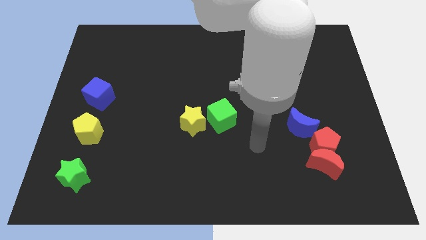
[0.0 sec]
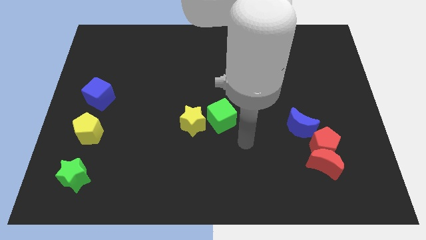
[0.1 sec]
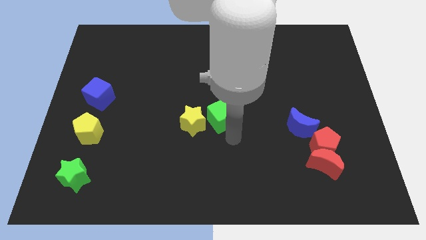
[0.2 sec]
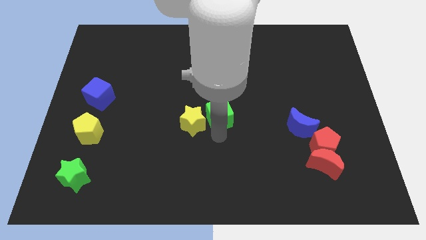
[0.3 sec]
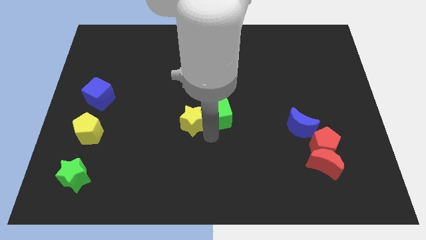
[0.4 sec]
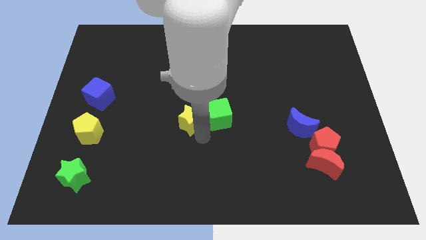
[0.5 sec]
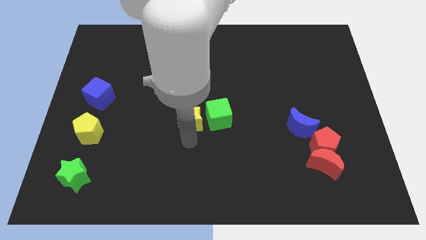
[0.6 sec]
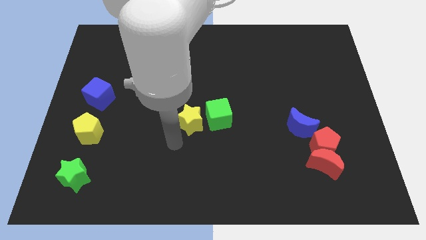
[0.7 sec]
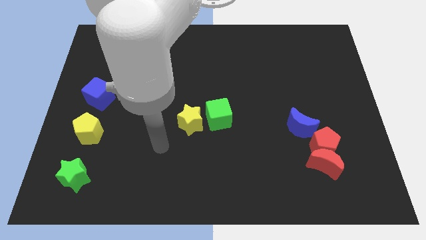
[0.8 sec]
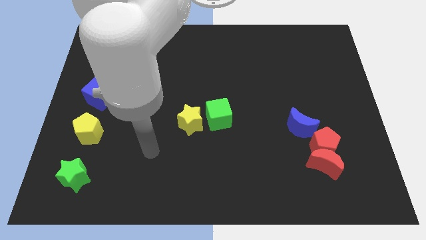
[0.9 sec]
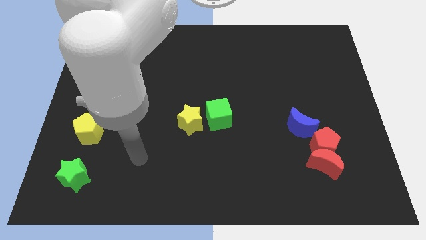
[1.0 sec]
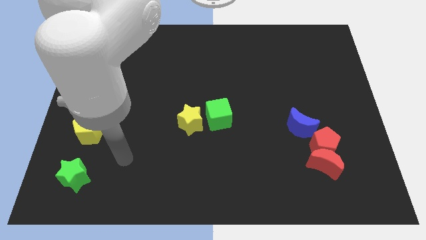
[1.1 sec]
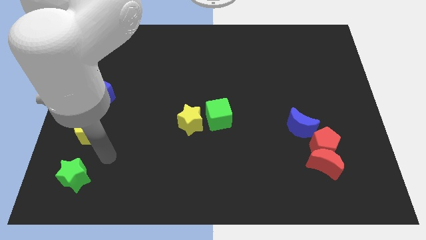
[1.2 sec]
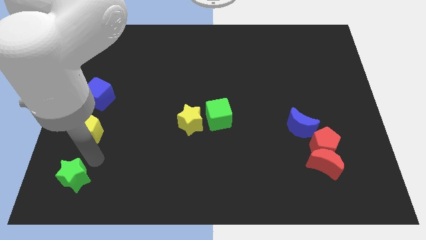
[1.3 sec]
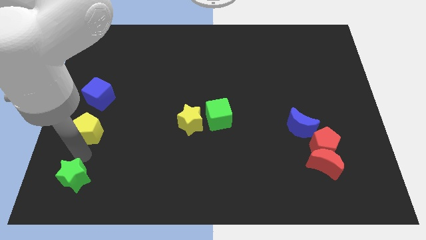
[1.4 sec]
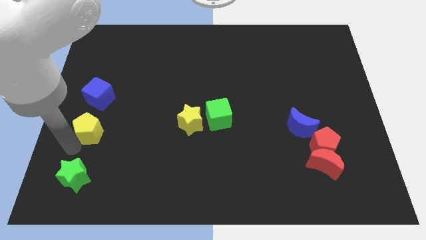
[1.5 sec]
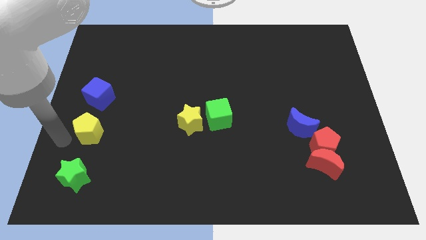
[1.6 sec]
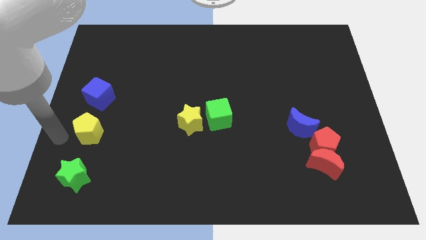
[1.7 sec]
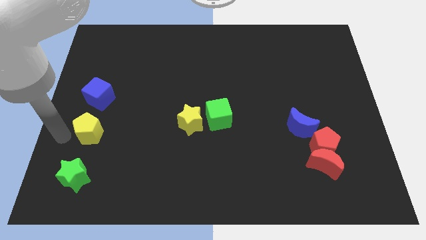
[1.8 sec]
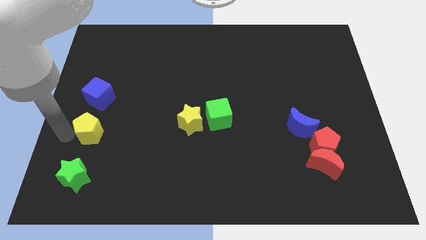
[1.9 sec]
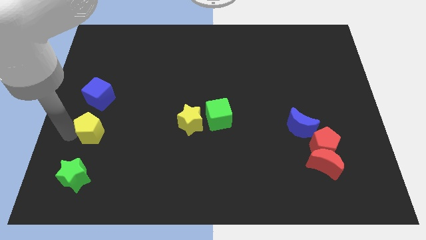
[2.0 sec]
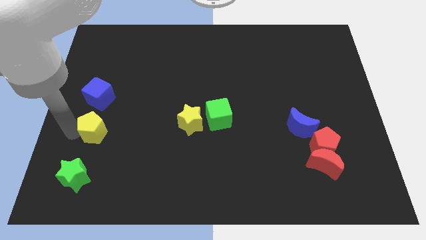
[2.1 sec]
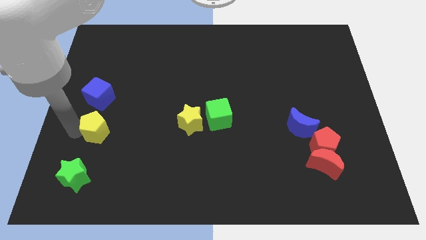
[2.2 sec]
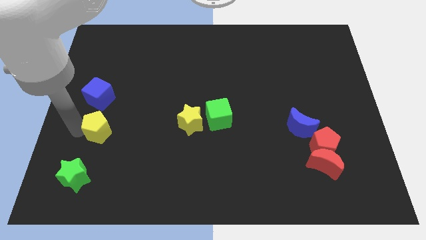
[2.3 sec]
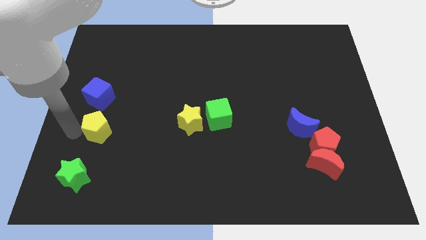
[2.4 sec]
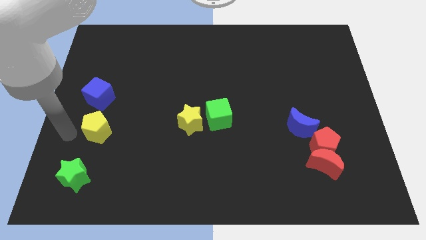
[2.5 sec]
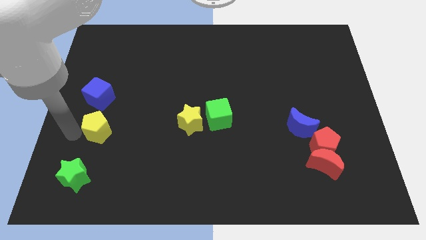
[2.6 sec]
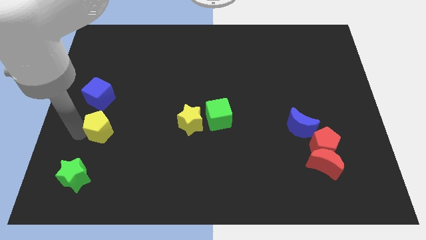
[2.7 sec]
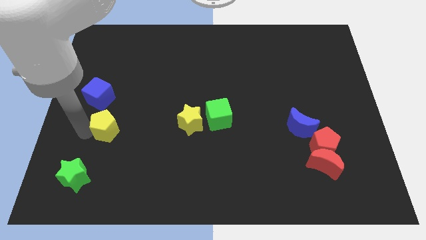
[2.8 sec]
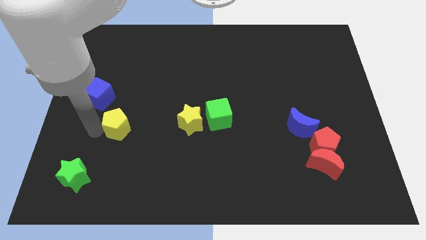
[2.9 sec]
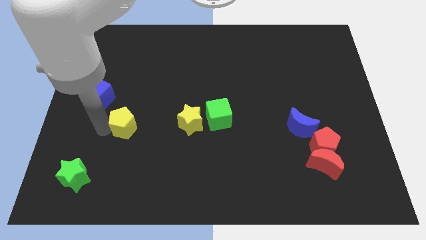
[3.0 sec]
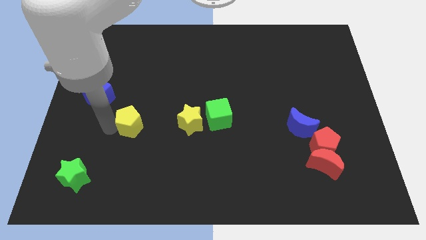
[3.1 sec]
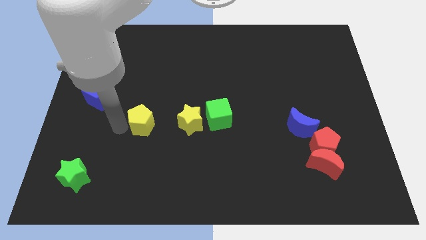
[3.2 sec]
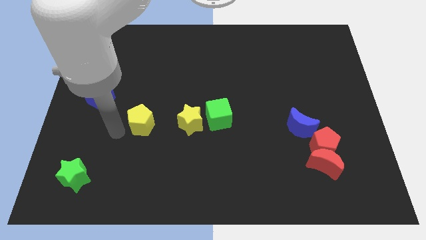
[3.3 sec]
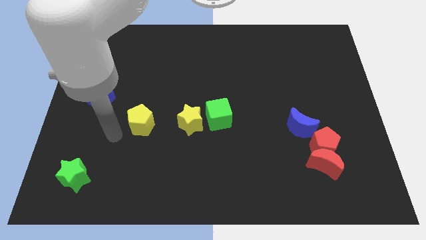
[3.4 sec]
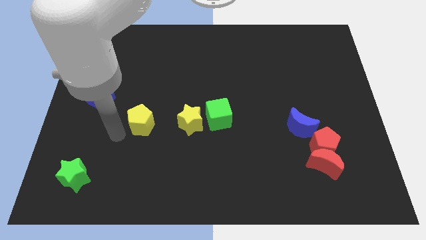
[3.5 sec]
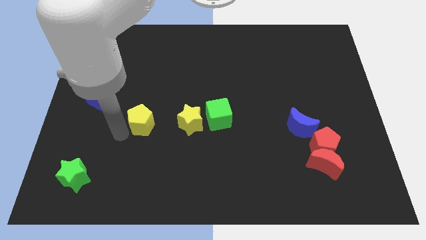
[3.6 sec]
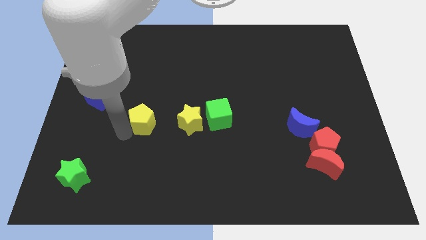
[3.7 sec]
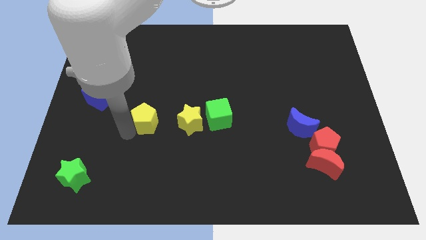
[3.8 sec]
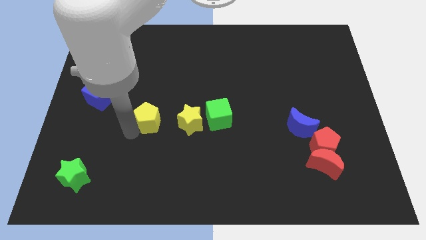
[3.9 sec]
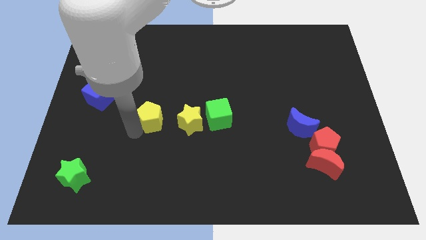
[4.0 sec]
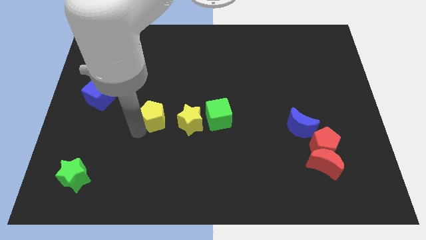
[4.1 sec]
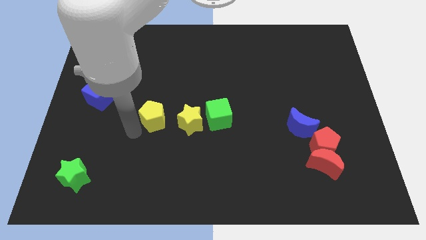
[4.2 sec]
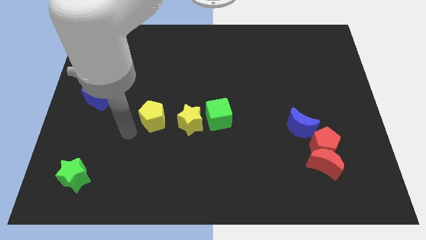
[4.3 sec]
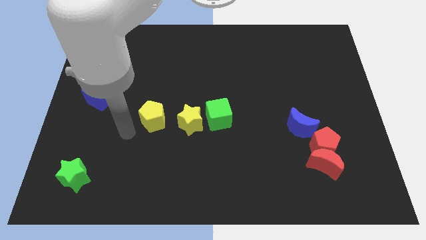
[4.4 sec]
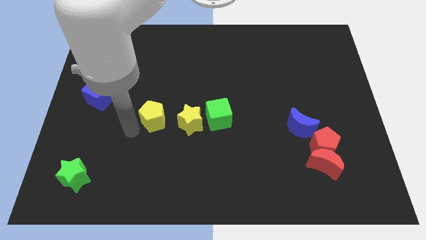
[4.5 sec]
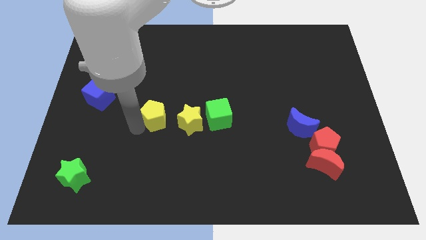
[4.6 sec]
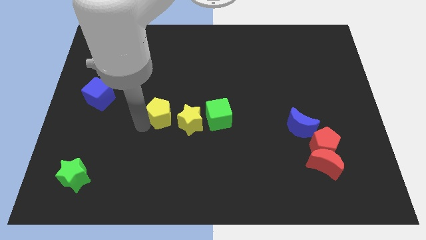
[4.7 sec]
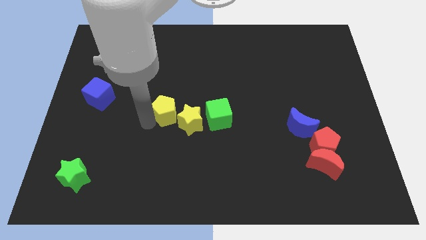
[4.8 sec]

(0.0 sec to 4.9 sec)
push the yellow pentagon to the center
